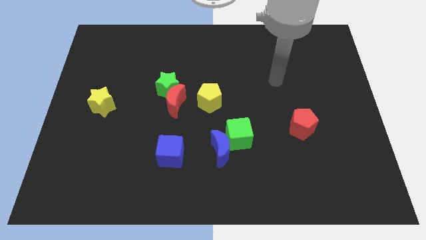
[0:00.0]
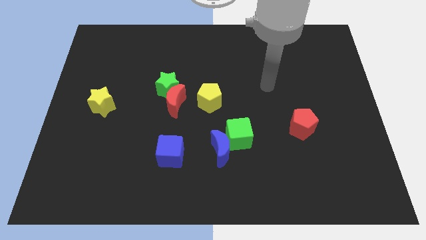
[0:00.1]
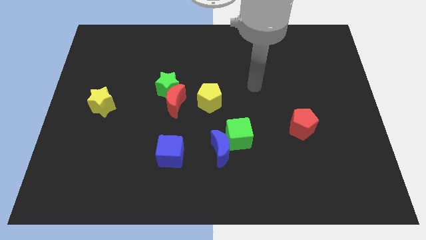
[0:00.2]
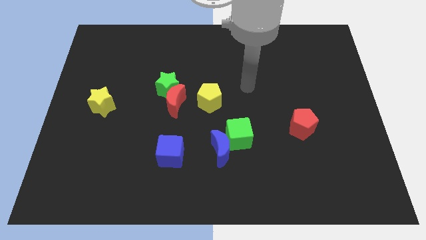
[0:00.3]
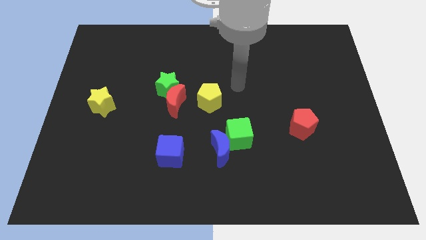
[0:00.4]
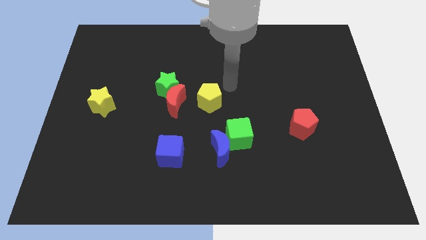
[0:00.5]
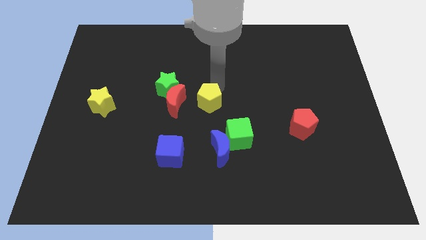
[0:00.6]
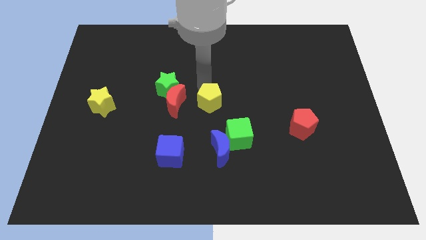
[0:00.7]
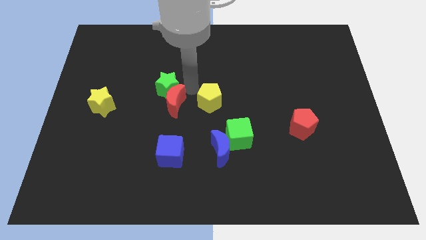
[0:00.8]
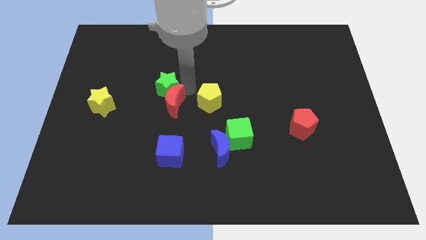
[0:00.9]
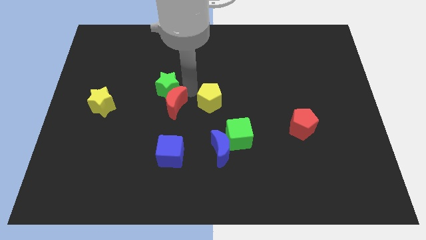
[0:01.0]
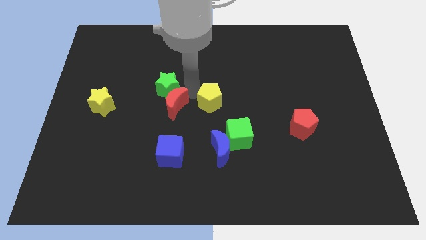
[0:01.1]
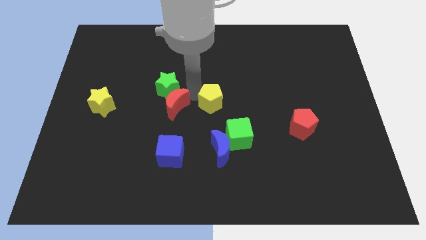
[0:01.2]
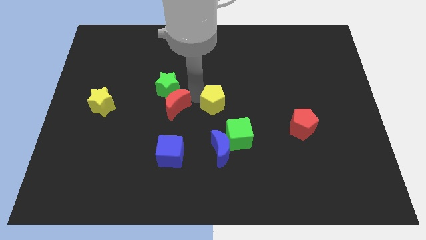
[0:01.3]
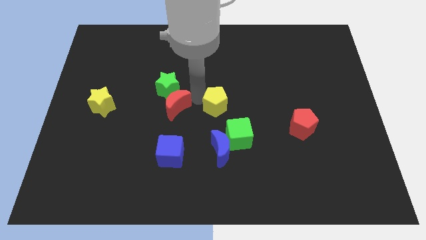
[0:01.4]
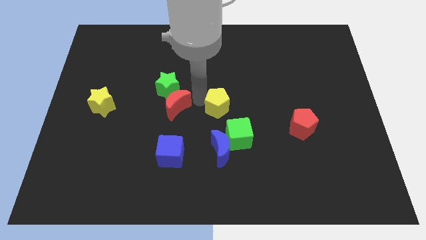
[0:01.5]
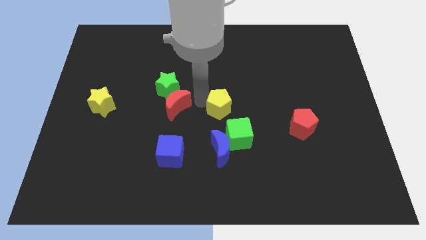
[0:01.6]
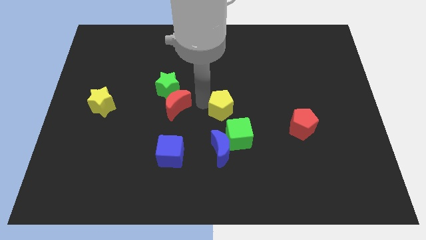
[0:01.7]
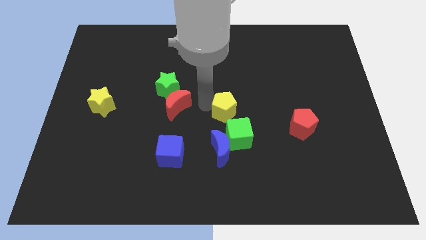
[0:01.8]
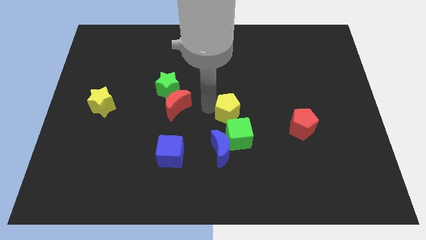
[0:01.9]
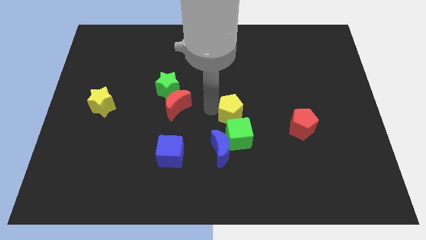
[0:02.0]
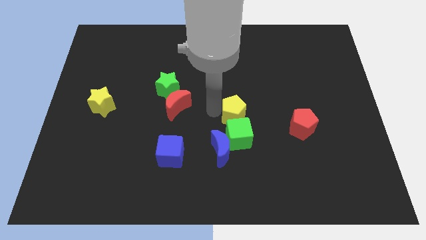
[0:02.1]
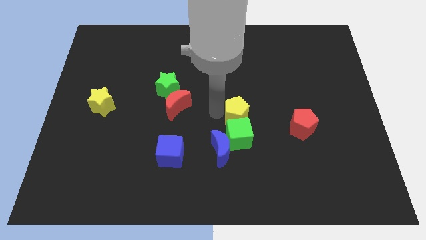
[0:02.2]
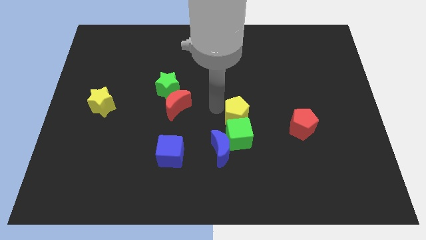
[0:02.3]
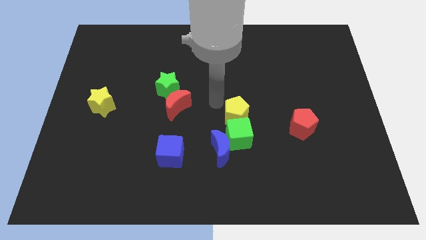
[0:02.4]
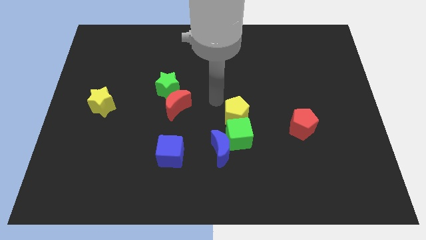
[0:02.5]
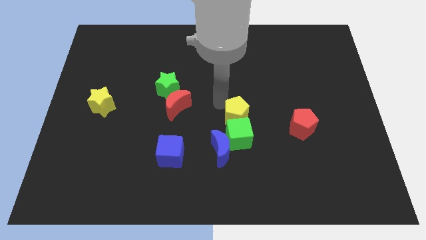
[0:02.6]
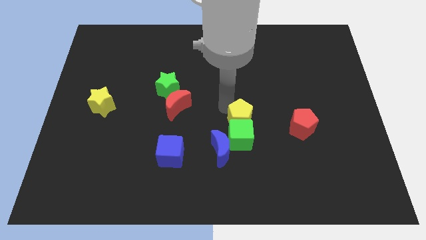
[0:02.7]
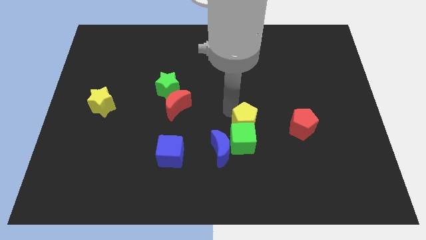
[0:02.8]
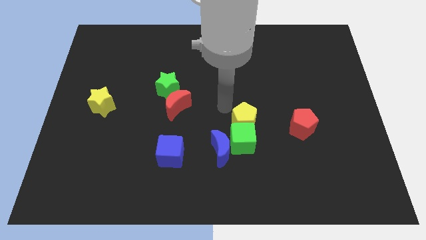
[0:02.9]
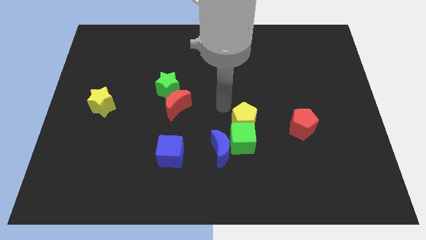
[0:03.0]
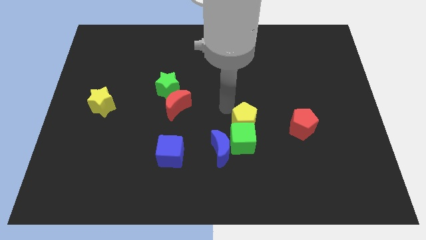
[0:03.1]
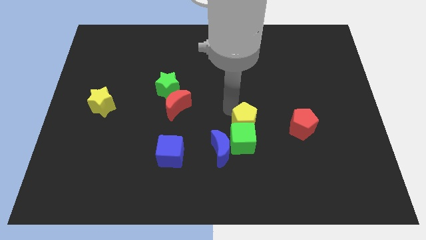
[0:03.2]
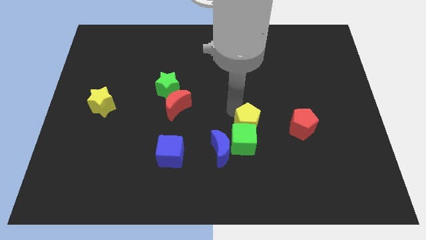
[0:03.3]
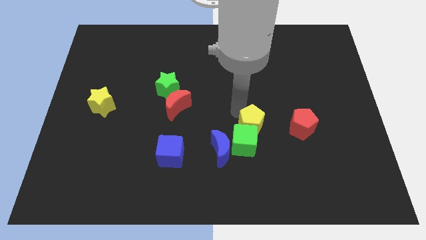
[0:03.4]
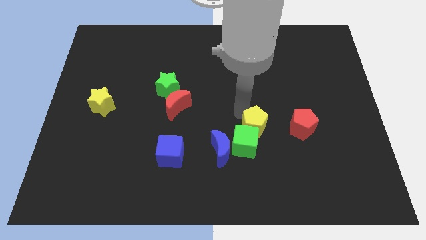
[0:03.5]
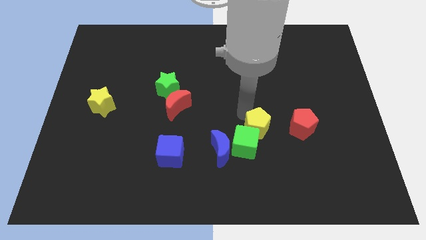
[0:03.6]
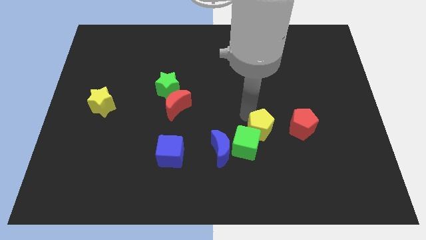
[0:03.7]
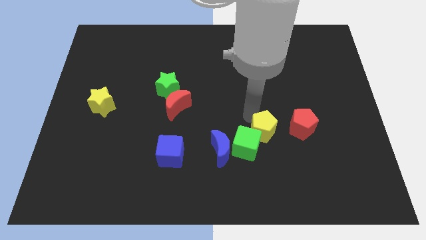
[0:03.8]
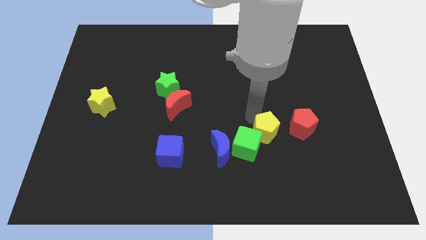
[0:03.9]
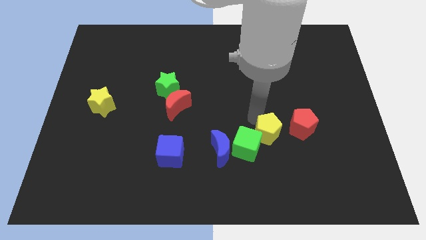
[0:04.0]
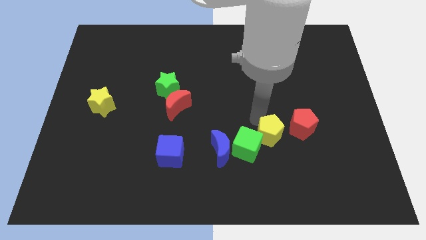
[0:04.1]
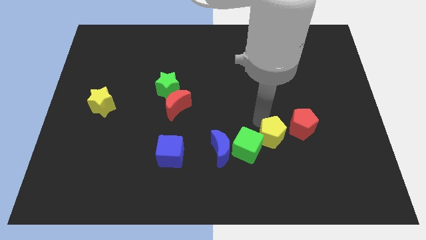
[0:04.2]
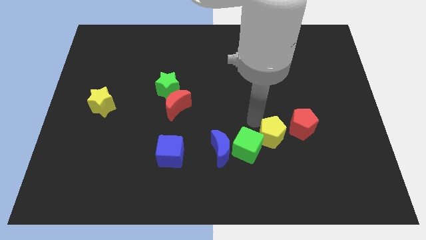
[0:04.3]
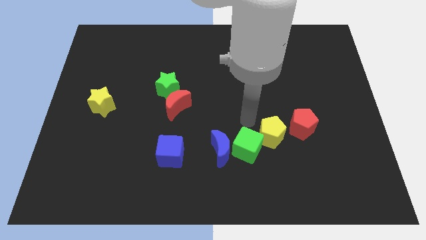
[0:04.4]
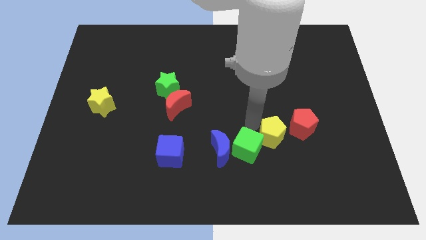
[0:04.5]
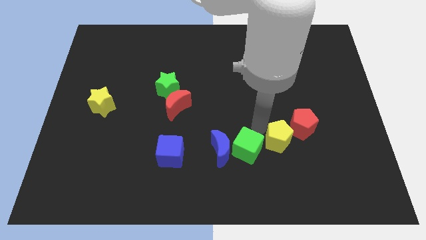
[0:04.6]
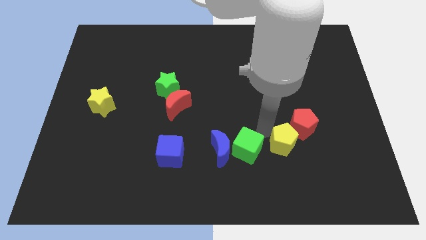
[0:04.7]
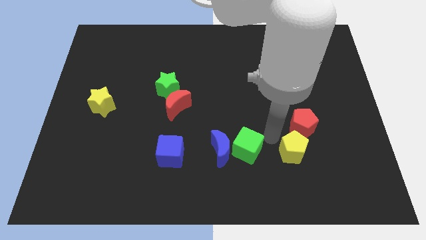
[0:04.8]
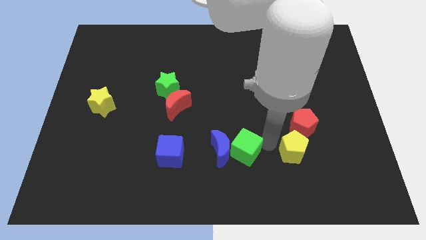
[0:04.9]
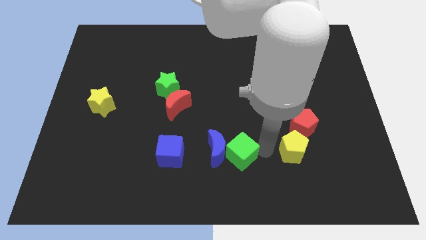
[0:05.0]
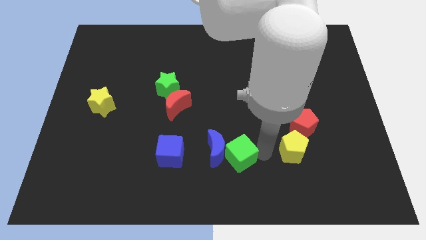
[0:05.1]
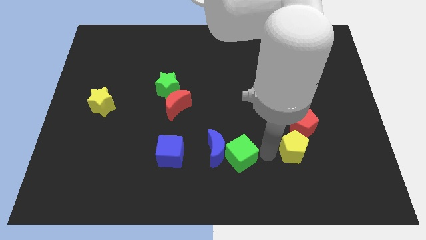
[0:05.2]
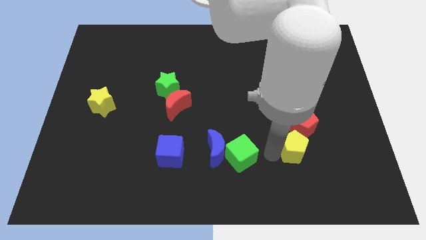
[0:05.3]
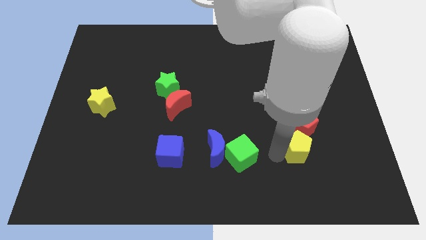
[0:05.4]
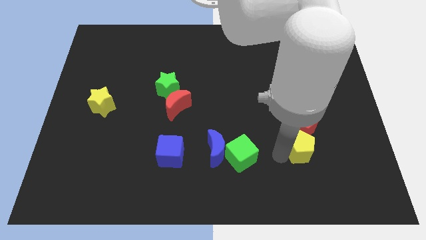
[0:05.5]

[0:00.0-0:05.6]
slide the yellow pentagon to the bottom right side of the red pentagon

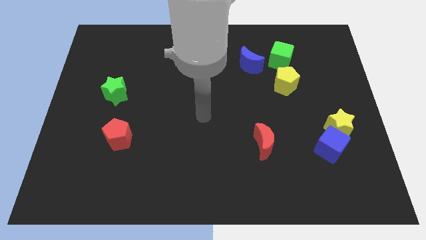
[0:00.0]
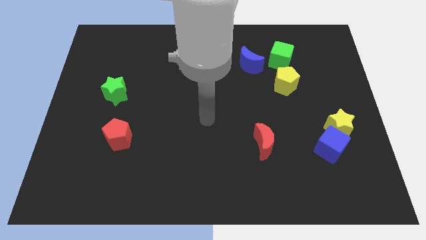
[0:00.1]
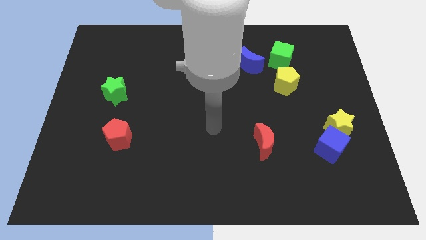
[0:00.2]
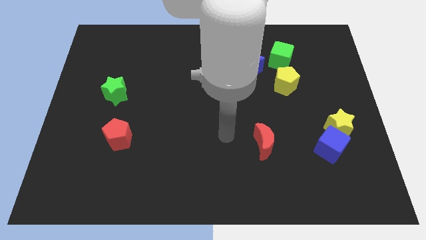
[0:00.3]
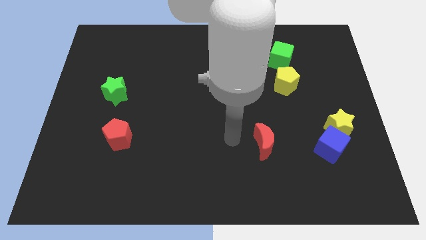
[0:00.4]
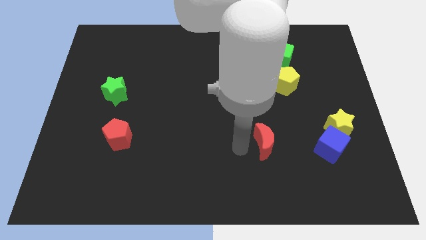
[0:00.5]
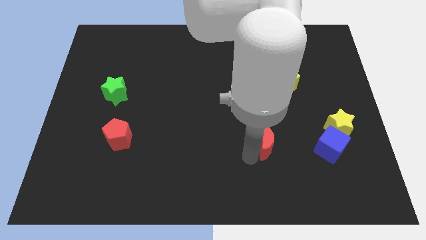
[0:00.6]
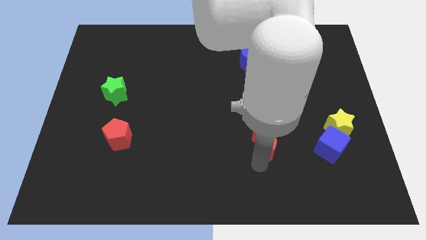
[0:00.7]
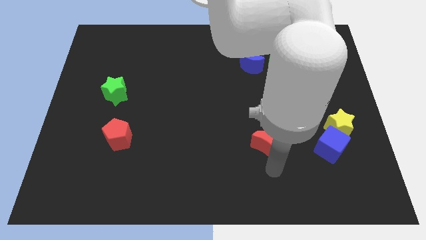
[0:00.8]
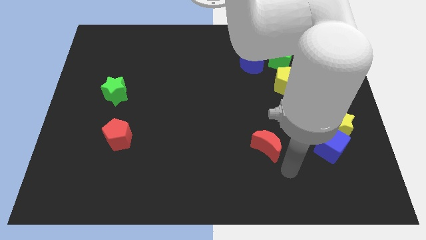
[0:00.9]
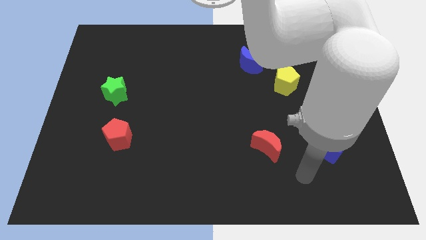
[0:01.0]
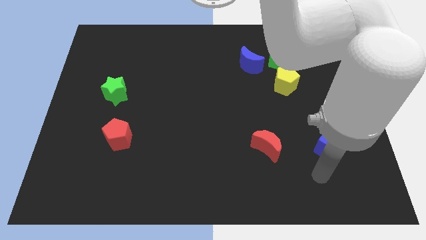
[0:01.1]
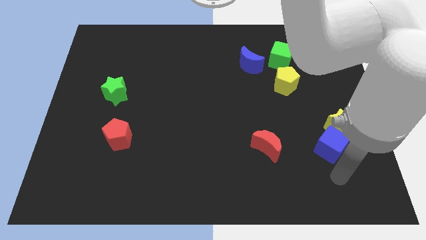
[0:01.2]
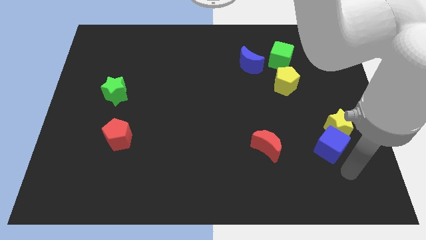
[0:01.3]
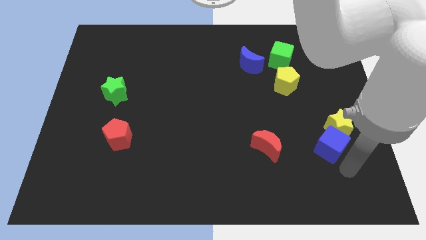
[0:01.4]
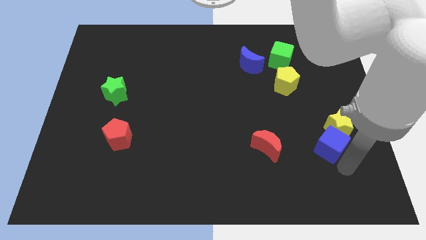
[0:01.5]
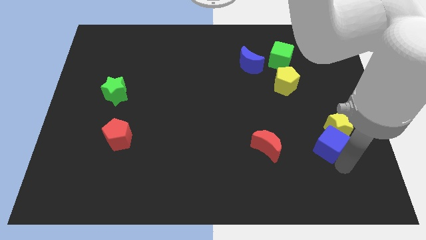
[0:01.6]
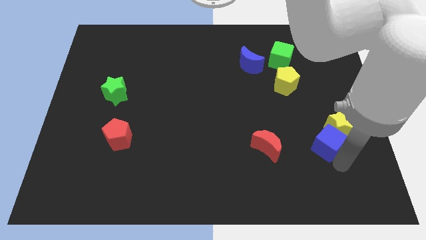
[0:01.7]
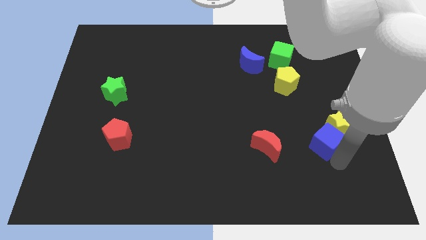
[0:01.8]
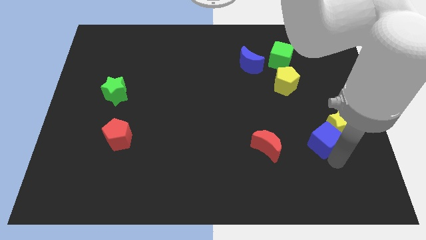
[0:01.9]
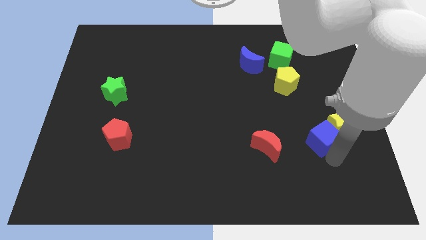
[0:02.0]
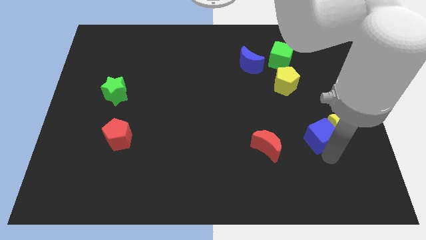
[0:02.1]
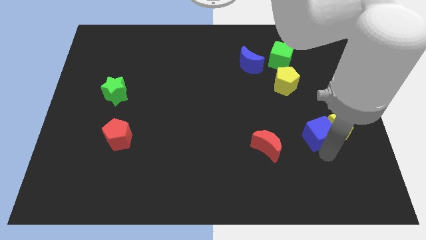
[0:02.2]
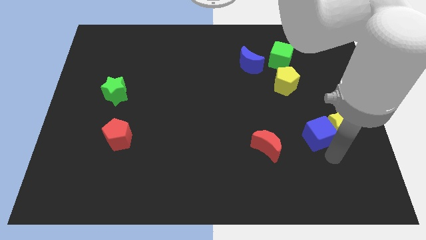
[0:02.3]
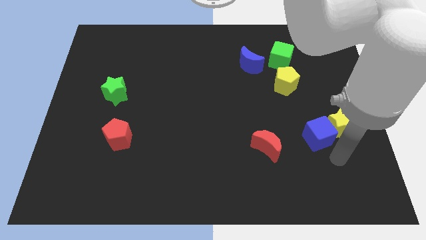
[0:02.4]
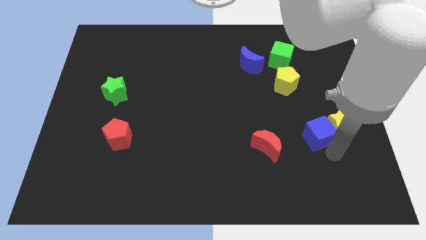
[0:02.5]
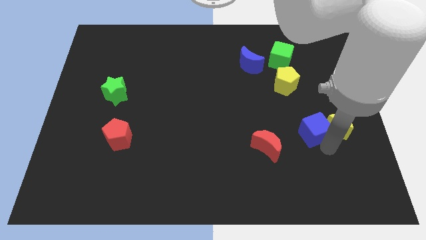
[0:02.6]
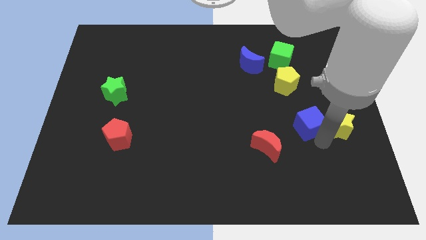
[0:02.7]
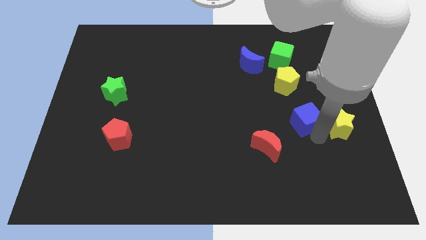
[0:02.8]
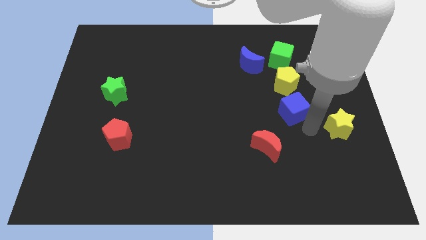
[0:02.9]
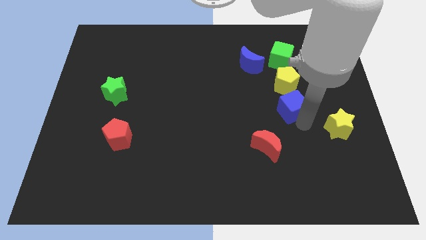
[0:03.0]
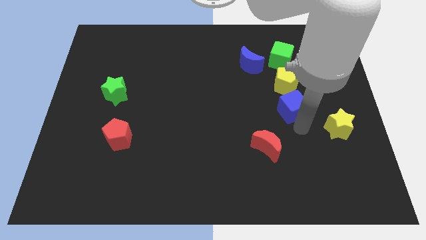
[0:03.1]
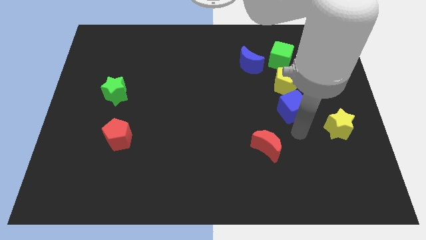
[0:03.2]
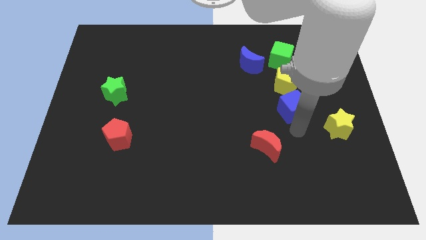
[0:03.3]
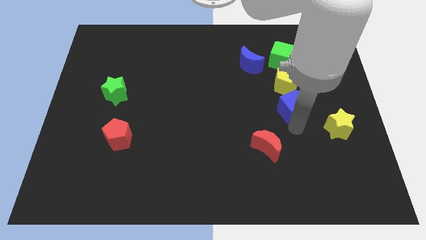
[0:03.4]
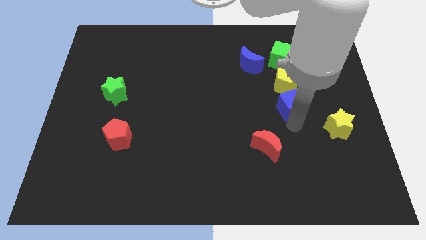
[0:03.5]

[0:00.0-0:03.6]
put the blue cube below the green cube
